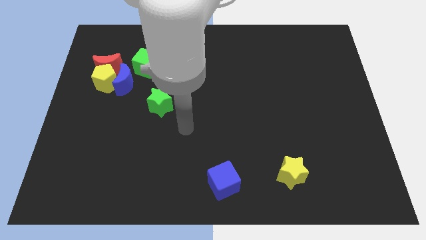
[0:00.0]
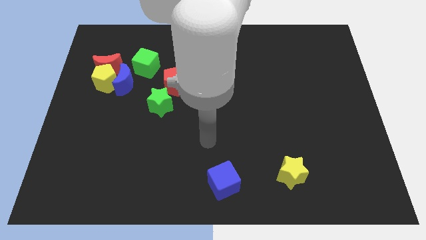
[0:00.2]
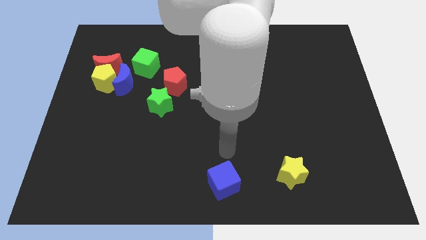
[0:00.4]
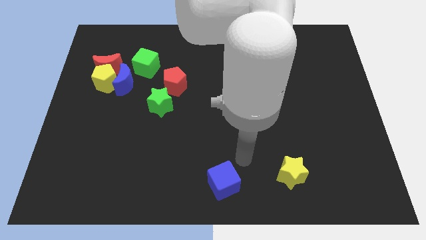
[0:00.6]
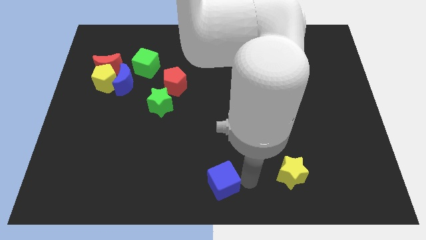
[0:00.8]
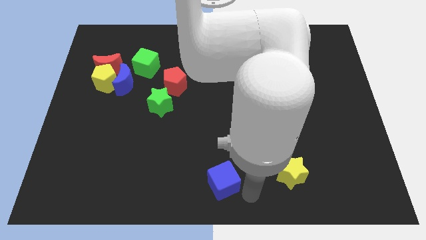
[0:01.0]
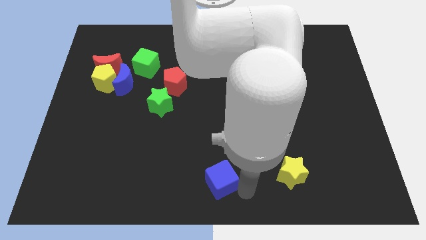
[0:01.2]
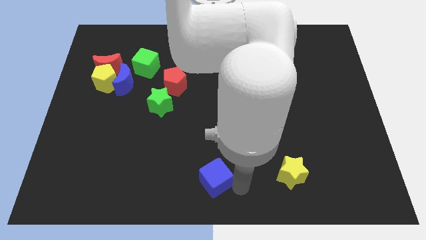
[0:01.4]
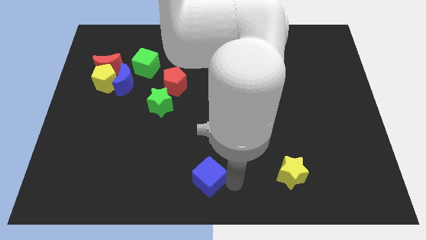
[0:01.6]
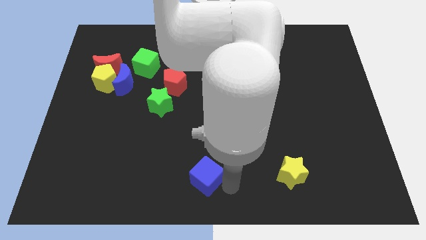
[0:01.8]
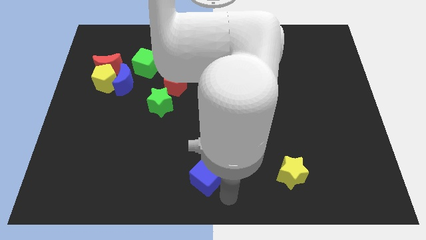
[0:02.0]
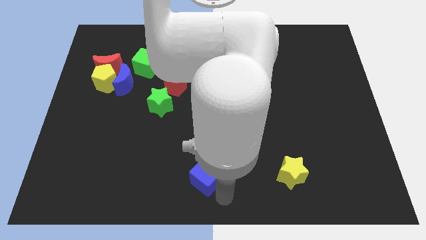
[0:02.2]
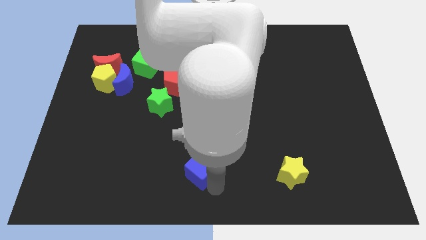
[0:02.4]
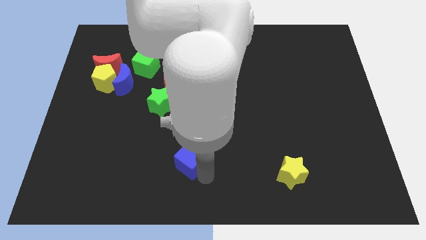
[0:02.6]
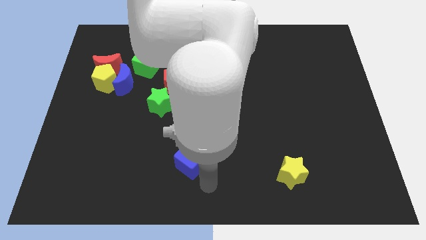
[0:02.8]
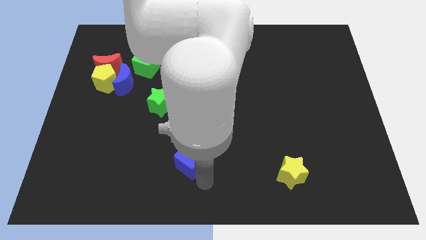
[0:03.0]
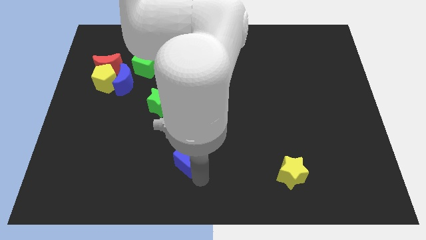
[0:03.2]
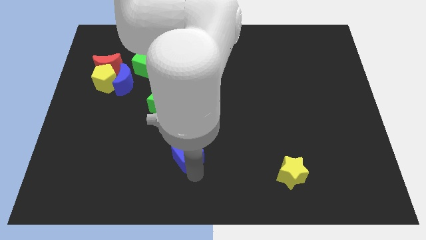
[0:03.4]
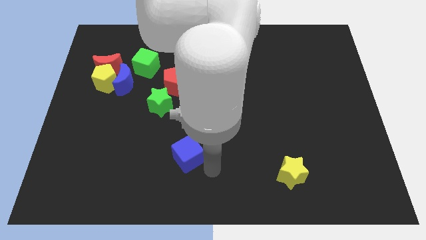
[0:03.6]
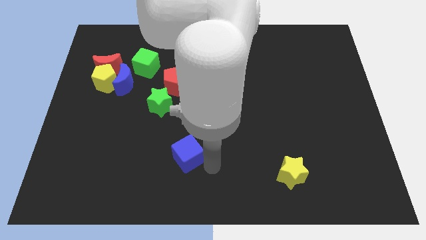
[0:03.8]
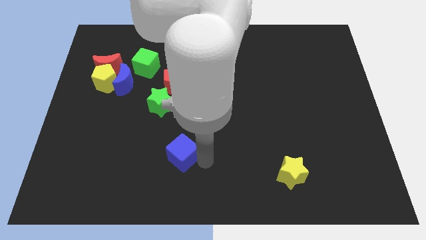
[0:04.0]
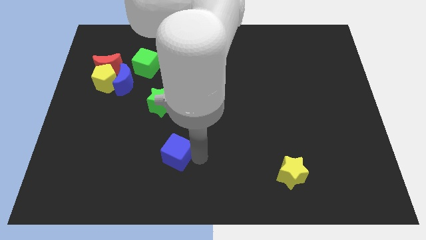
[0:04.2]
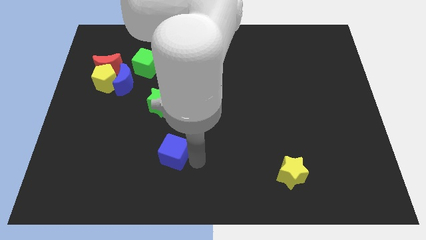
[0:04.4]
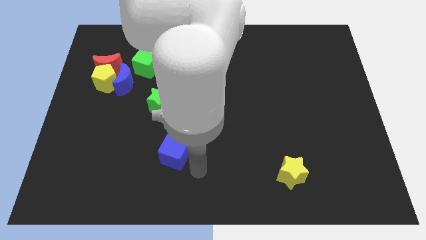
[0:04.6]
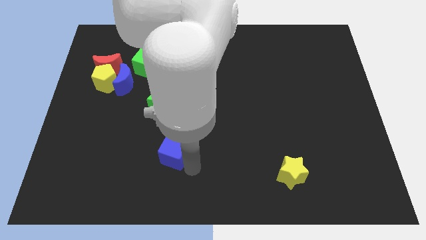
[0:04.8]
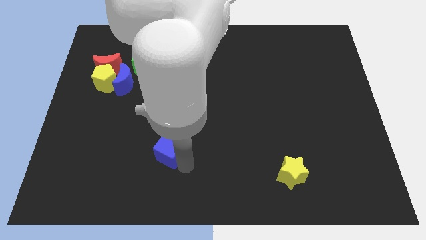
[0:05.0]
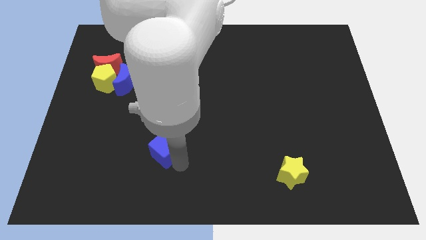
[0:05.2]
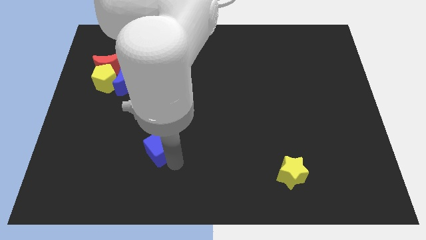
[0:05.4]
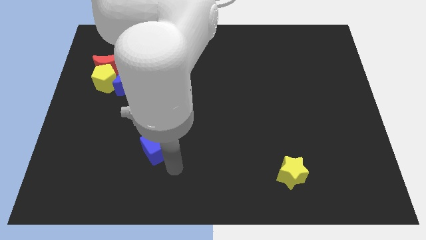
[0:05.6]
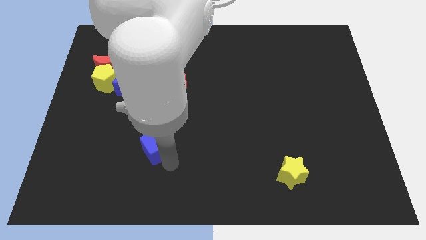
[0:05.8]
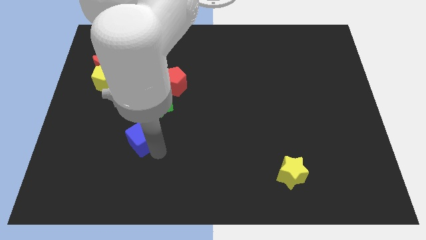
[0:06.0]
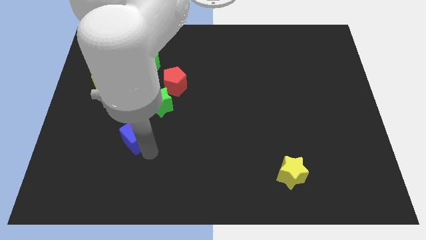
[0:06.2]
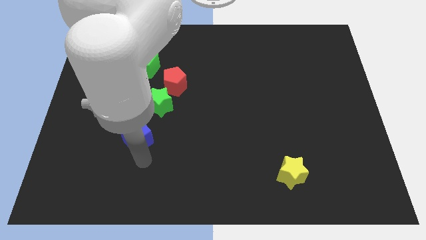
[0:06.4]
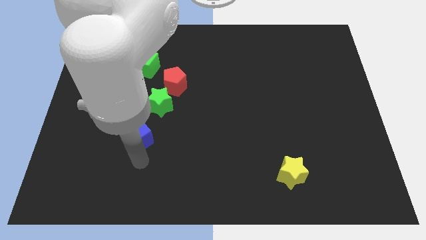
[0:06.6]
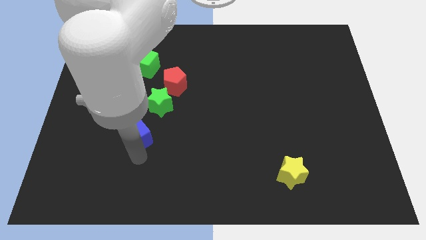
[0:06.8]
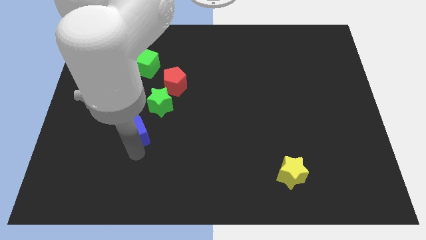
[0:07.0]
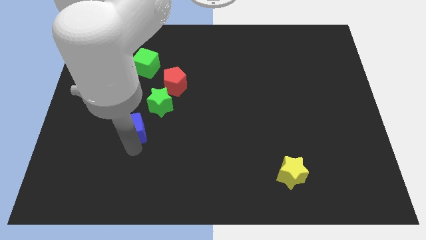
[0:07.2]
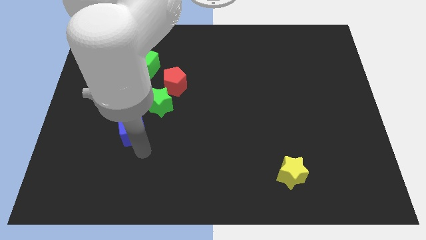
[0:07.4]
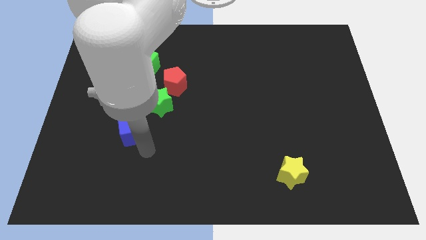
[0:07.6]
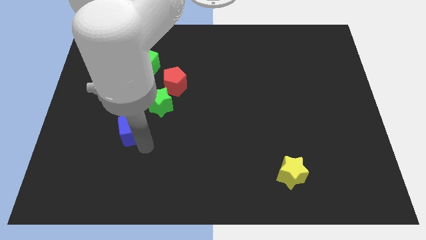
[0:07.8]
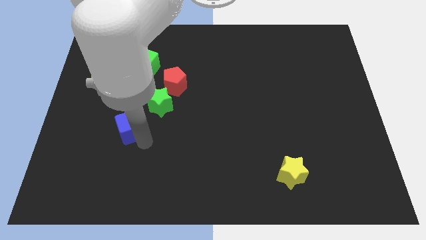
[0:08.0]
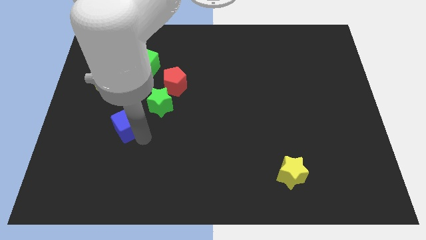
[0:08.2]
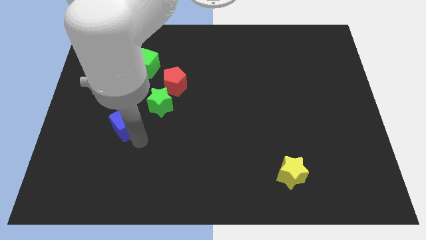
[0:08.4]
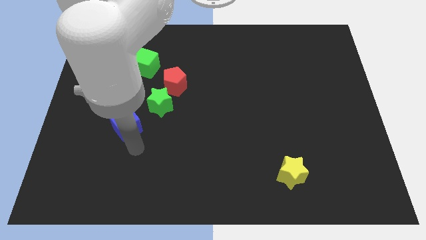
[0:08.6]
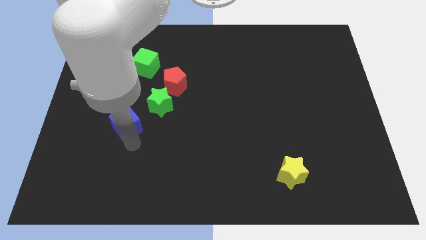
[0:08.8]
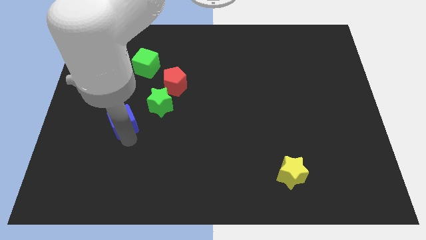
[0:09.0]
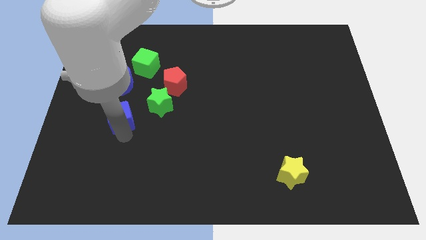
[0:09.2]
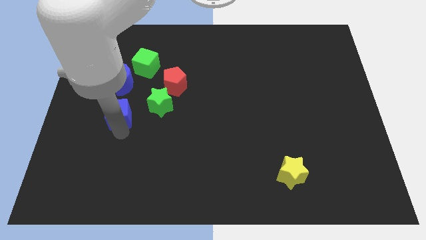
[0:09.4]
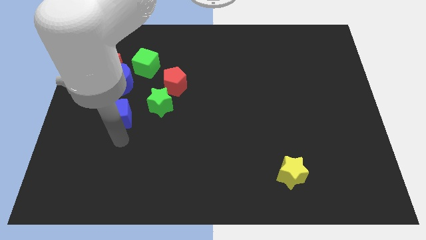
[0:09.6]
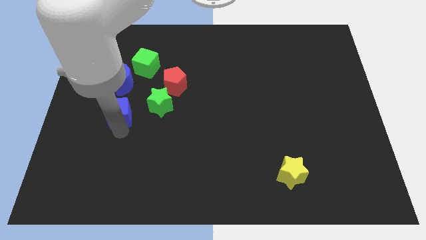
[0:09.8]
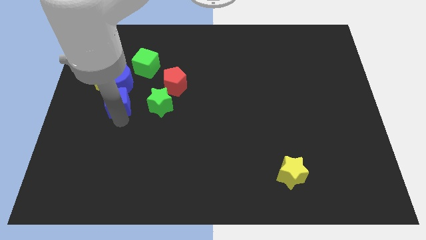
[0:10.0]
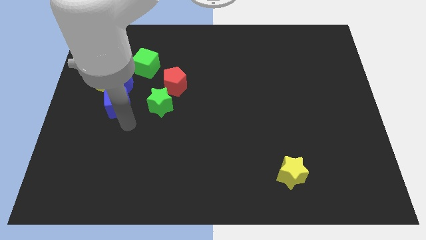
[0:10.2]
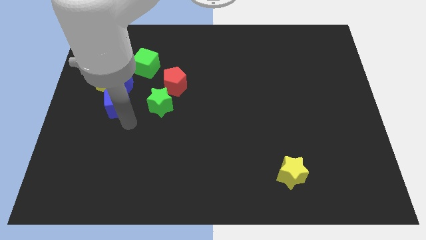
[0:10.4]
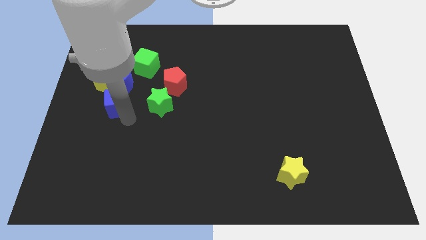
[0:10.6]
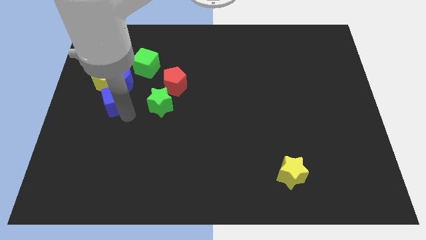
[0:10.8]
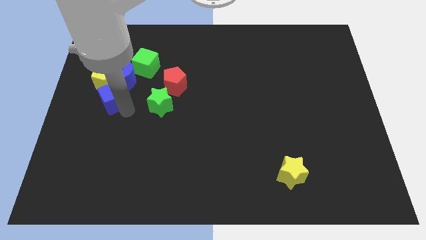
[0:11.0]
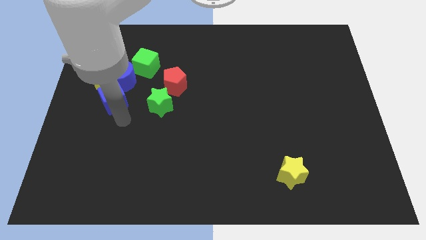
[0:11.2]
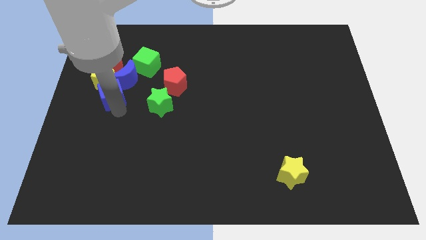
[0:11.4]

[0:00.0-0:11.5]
slide the blue cube close to the yellow pentagon

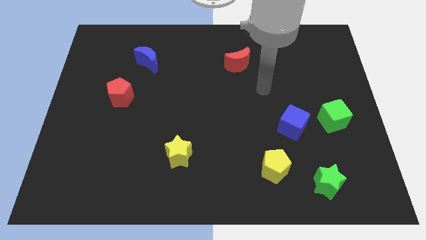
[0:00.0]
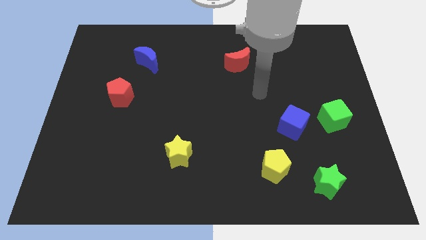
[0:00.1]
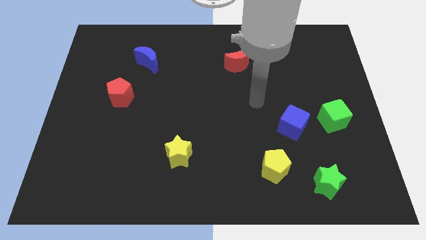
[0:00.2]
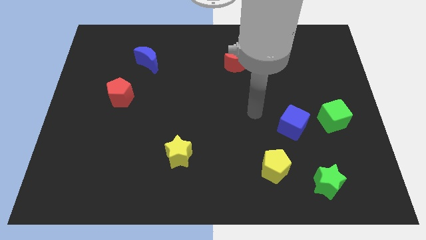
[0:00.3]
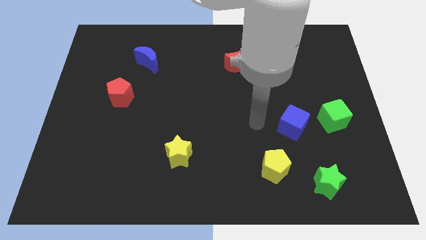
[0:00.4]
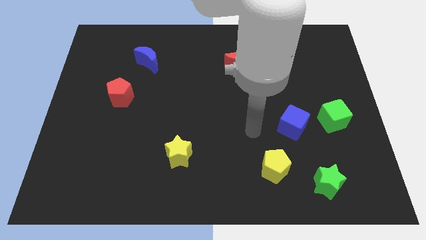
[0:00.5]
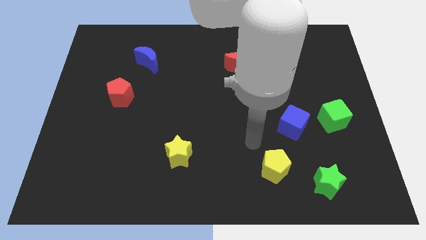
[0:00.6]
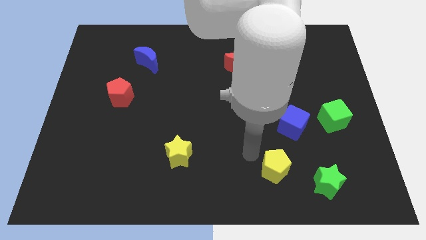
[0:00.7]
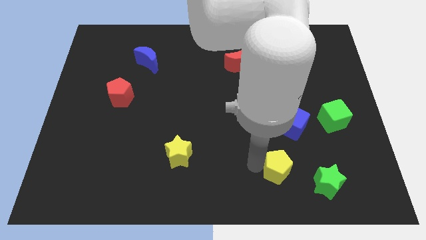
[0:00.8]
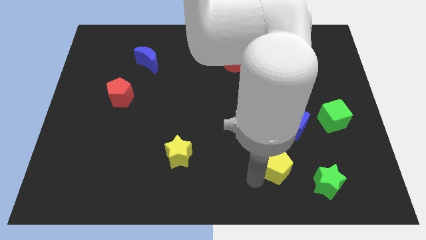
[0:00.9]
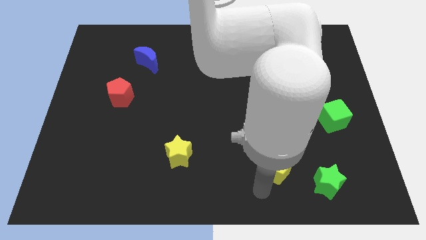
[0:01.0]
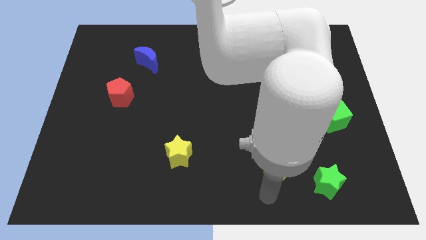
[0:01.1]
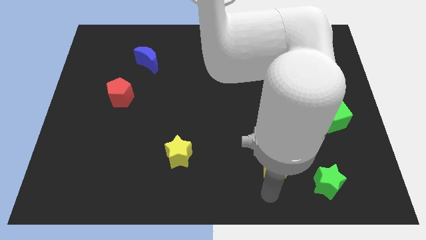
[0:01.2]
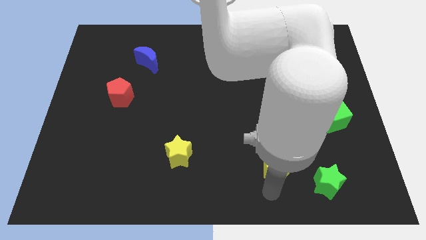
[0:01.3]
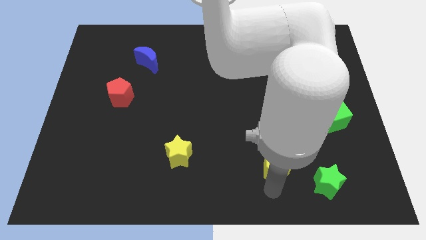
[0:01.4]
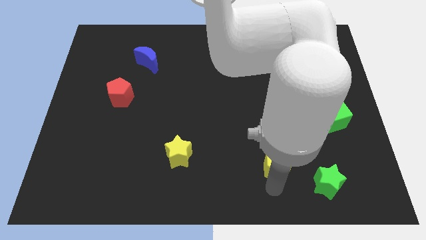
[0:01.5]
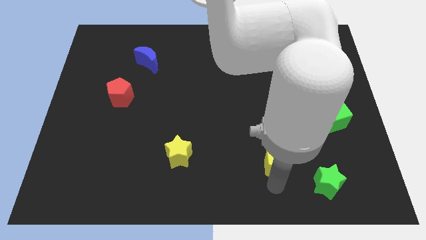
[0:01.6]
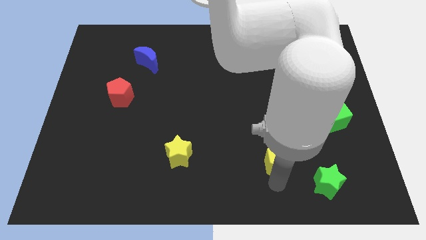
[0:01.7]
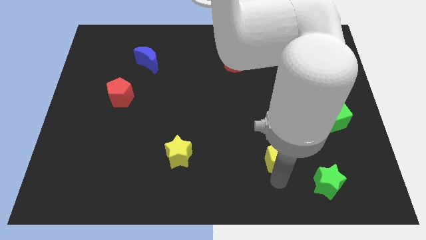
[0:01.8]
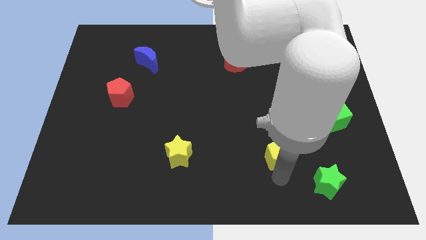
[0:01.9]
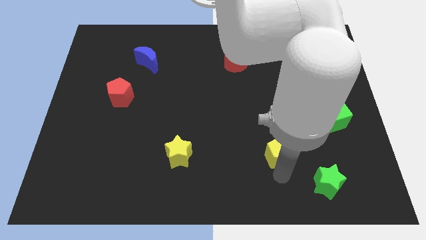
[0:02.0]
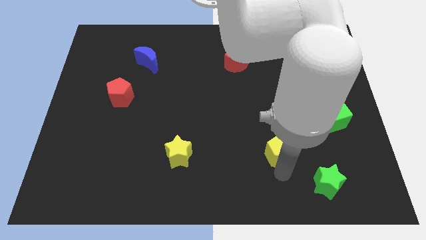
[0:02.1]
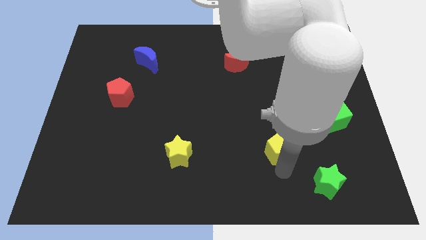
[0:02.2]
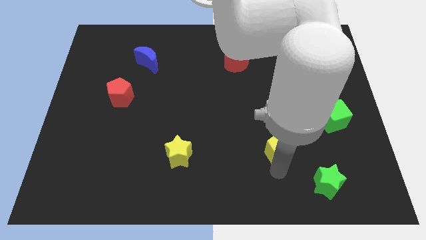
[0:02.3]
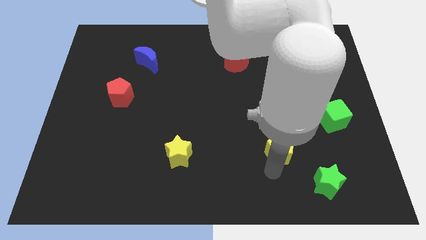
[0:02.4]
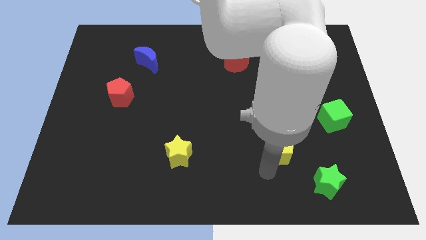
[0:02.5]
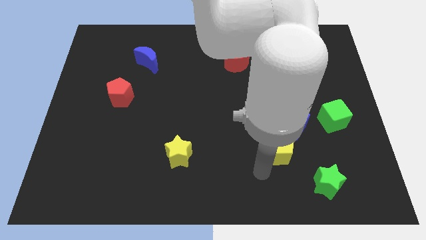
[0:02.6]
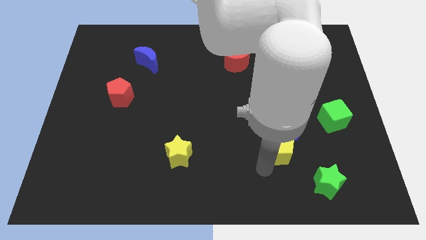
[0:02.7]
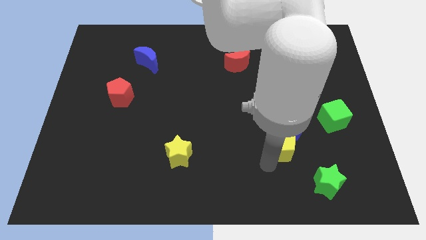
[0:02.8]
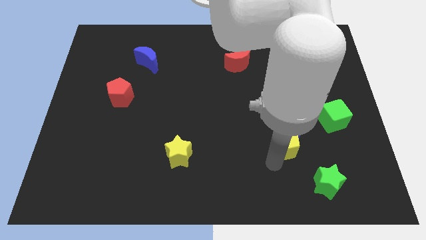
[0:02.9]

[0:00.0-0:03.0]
put the yellow pentagon to the blue cube
